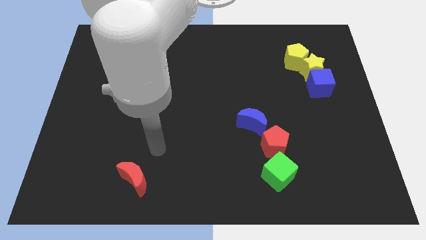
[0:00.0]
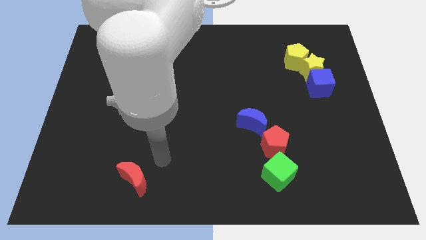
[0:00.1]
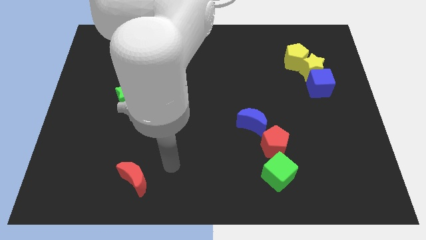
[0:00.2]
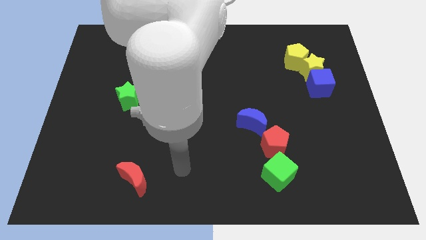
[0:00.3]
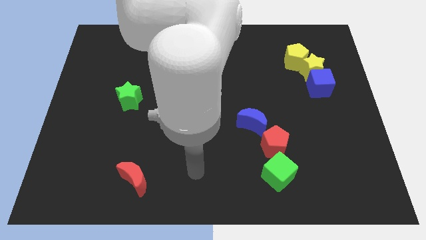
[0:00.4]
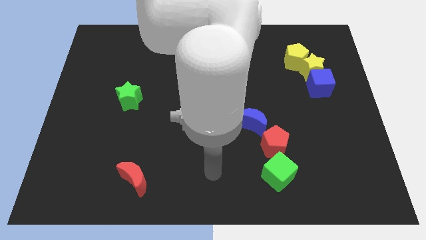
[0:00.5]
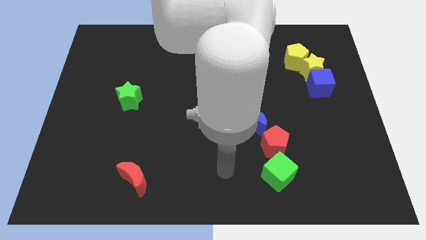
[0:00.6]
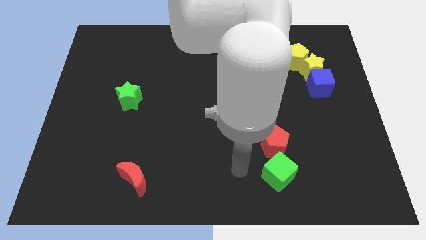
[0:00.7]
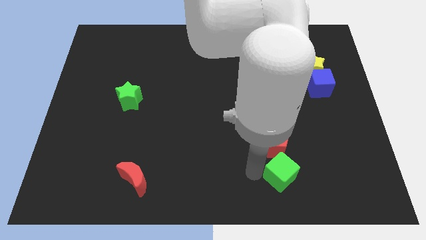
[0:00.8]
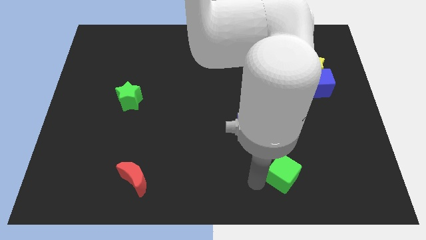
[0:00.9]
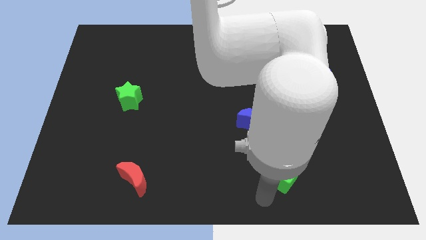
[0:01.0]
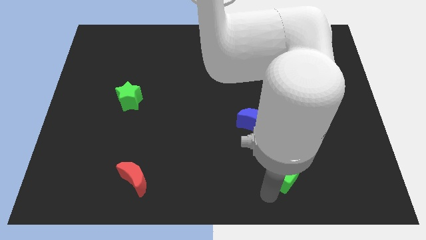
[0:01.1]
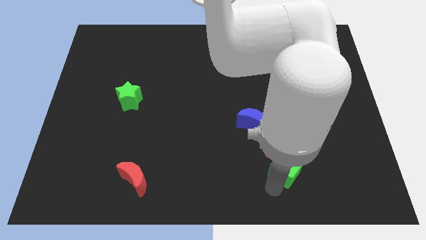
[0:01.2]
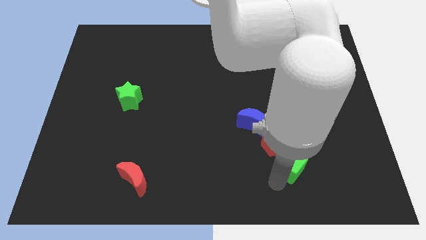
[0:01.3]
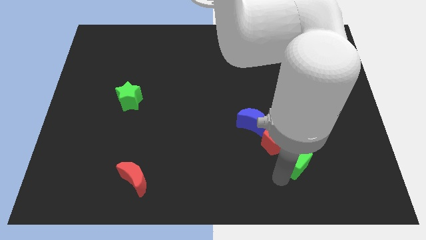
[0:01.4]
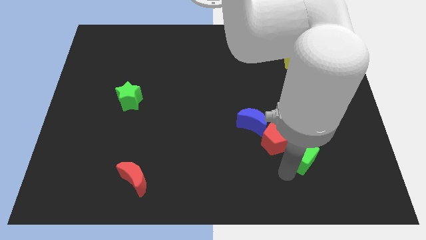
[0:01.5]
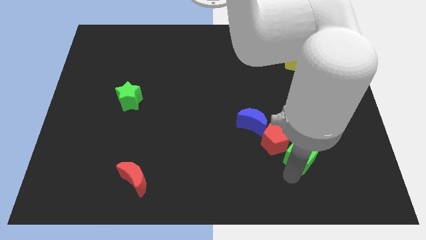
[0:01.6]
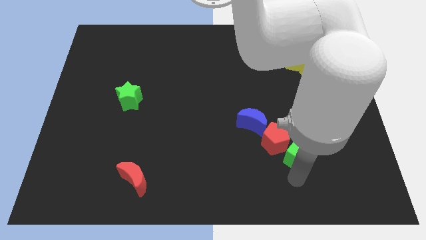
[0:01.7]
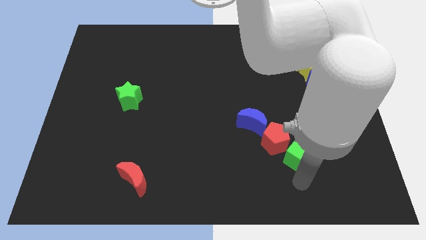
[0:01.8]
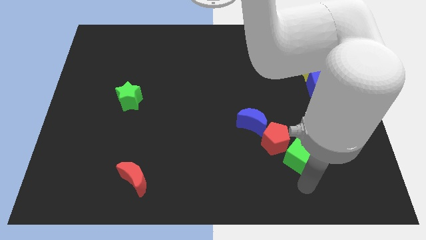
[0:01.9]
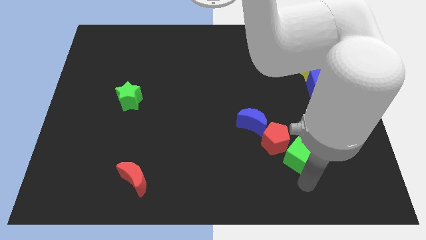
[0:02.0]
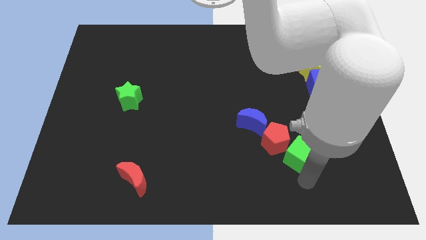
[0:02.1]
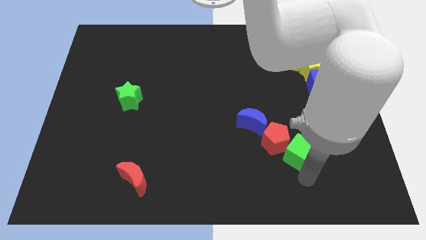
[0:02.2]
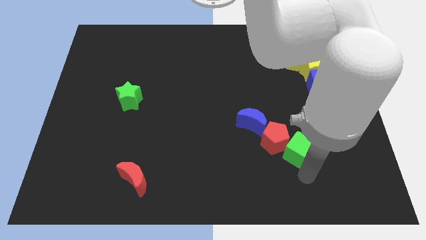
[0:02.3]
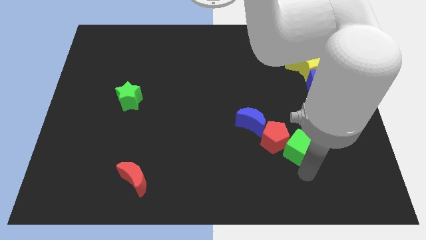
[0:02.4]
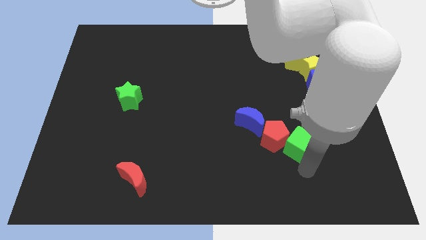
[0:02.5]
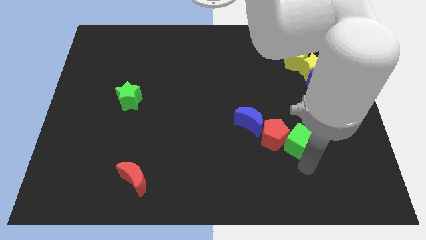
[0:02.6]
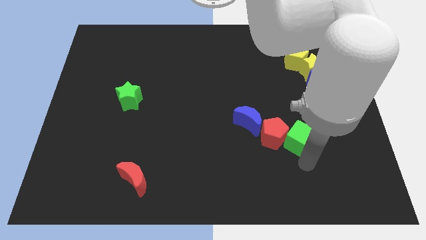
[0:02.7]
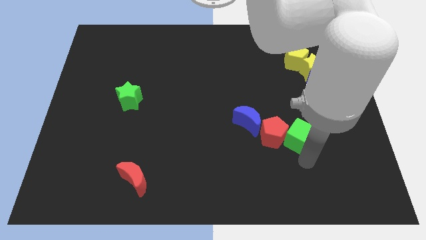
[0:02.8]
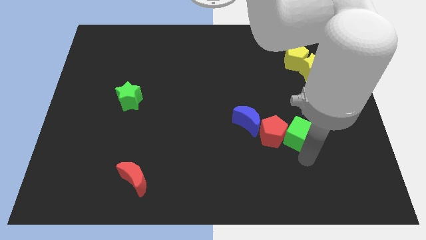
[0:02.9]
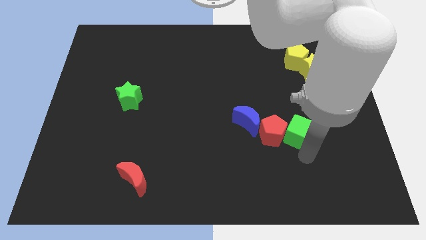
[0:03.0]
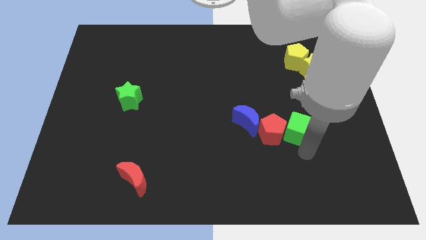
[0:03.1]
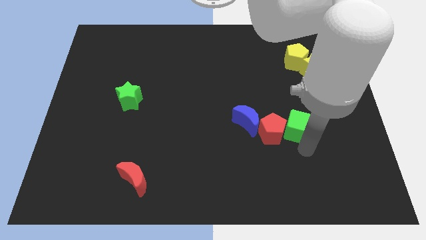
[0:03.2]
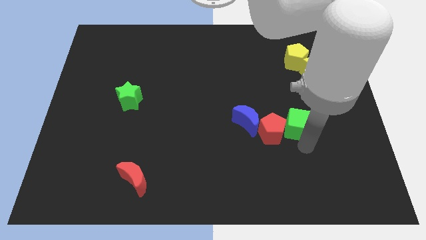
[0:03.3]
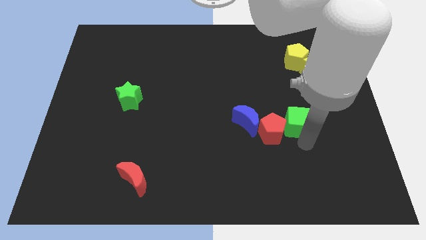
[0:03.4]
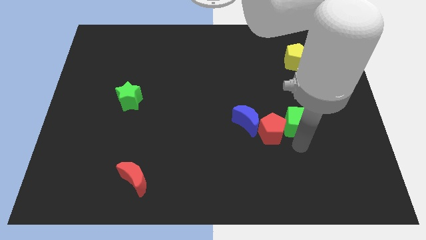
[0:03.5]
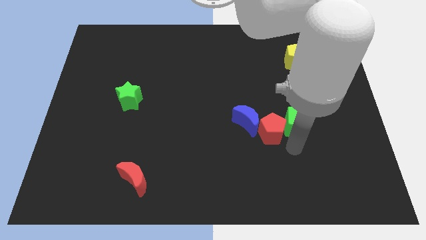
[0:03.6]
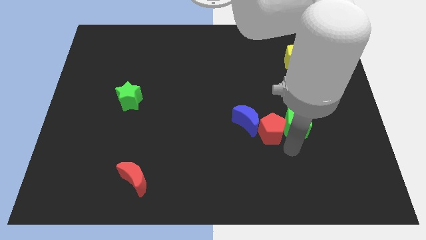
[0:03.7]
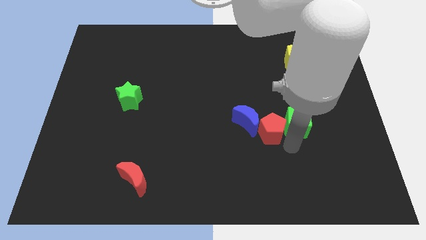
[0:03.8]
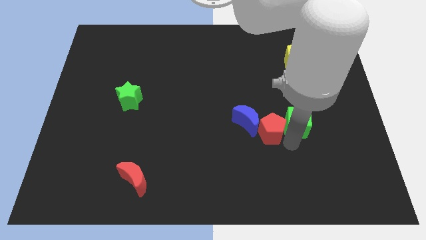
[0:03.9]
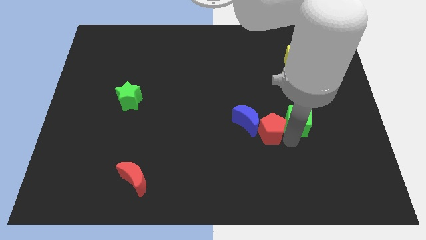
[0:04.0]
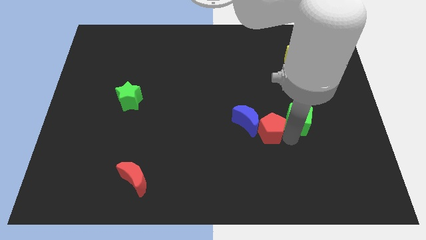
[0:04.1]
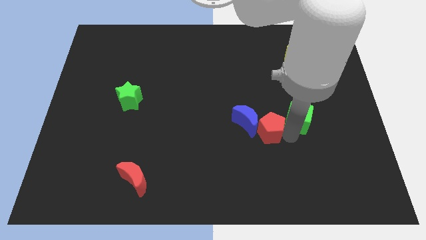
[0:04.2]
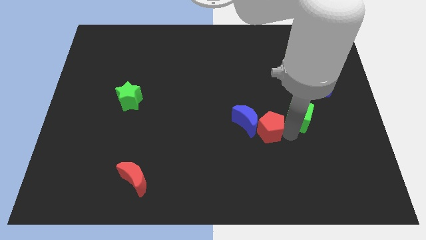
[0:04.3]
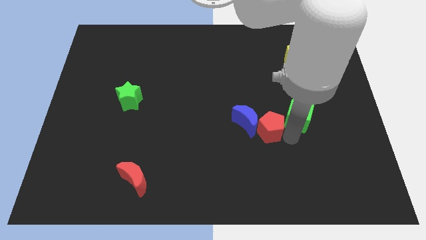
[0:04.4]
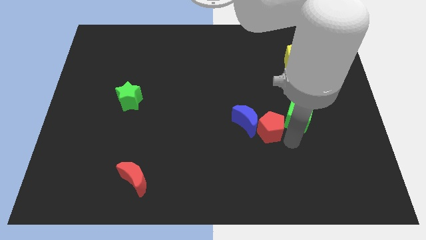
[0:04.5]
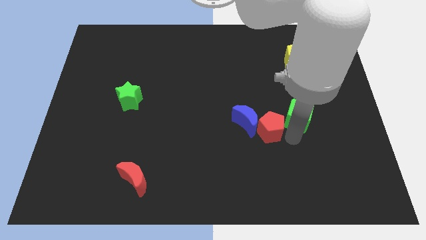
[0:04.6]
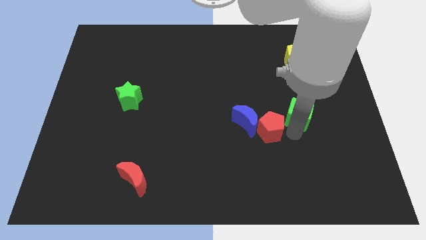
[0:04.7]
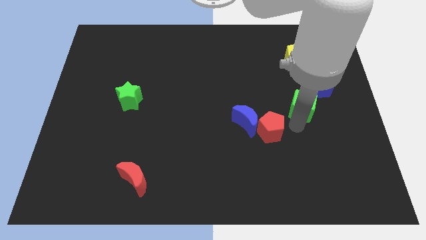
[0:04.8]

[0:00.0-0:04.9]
push the green cube to the bottom of the yellow pentagon

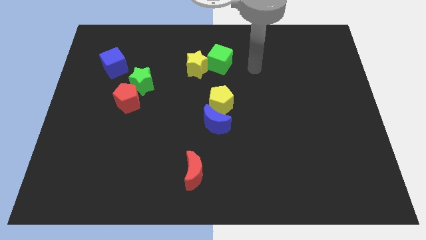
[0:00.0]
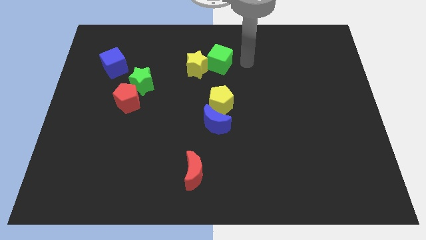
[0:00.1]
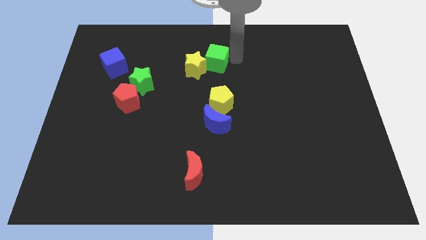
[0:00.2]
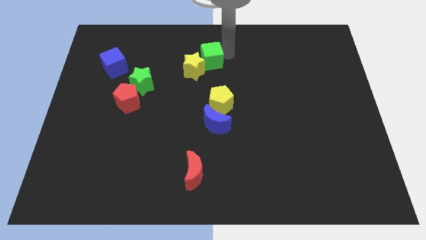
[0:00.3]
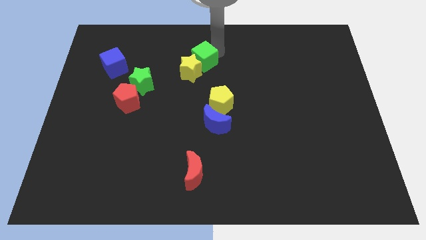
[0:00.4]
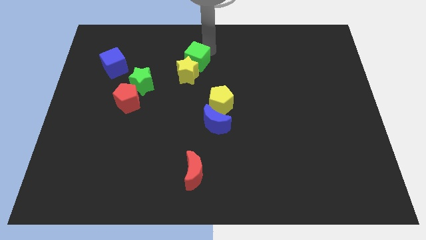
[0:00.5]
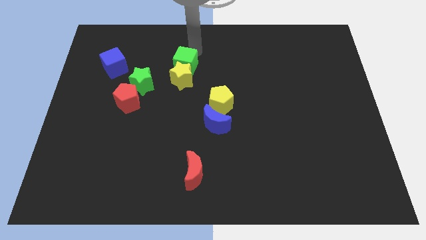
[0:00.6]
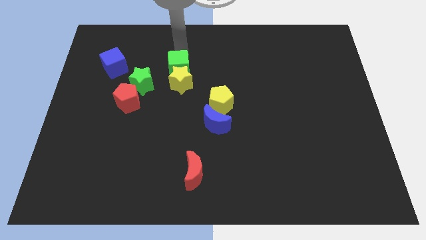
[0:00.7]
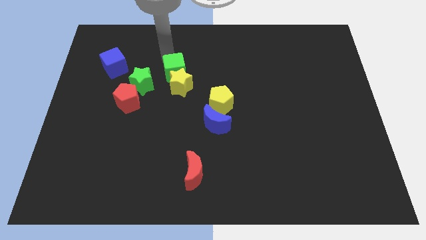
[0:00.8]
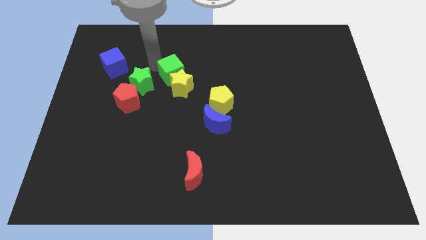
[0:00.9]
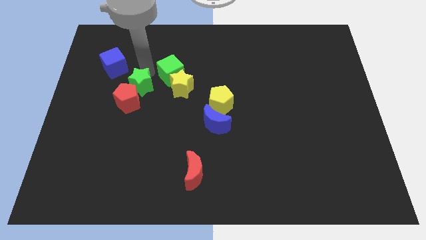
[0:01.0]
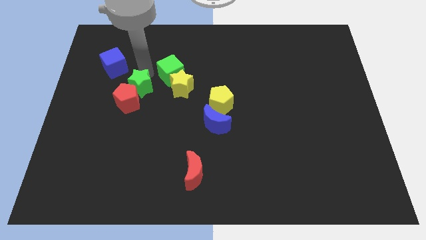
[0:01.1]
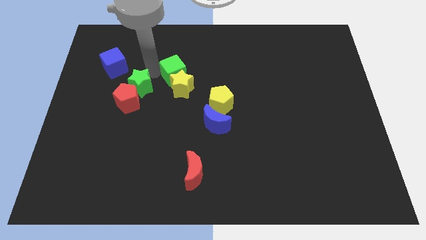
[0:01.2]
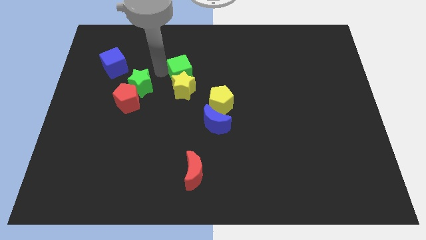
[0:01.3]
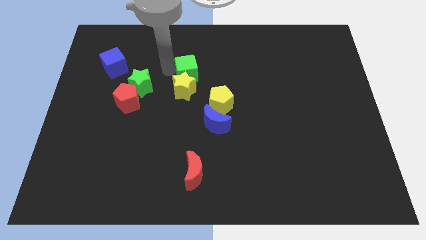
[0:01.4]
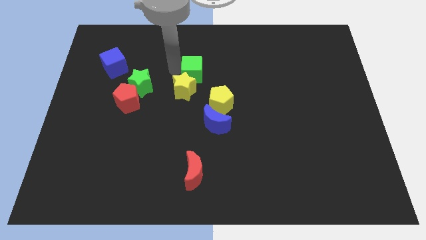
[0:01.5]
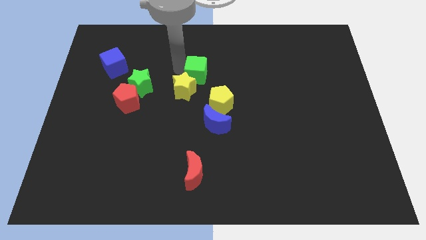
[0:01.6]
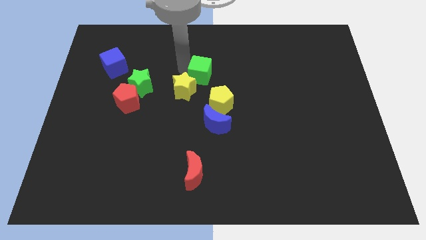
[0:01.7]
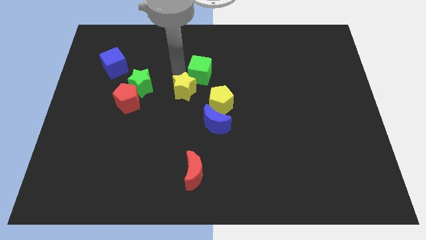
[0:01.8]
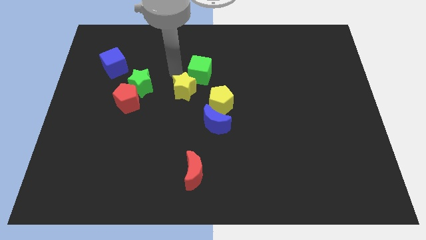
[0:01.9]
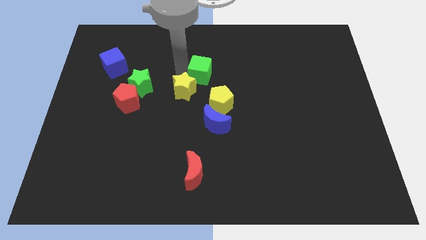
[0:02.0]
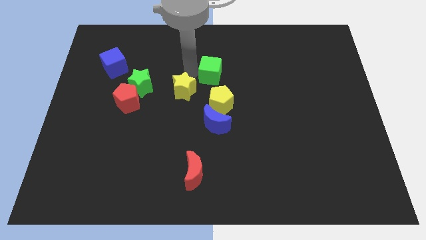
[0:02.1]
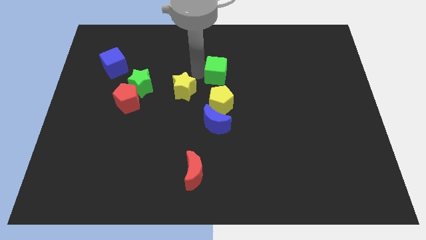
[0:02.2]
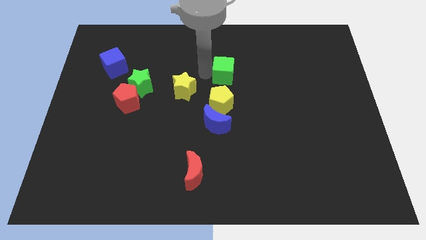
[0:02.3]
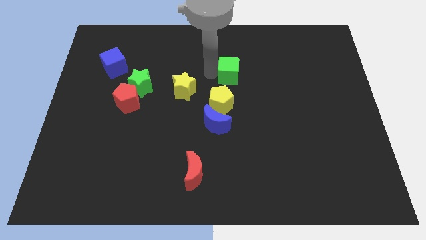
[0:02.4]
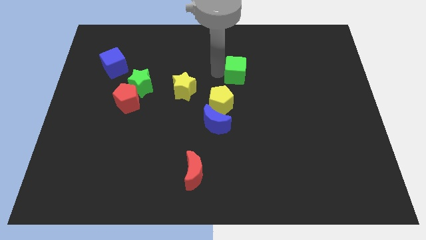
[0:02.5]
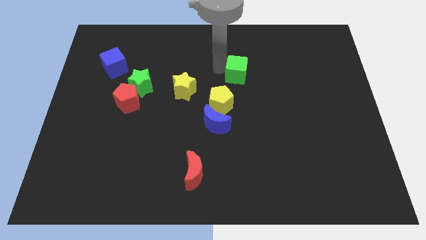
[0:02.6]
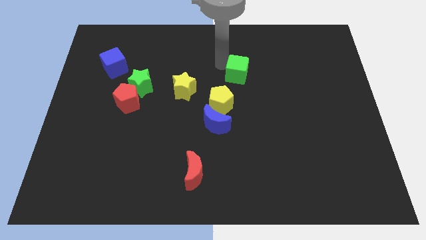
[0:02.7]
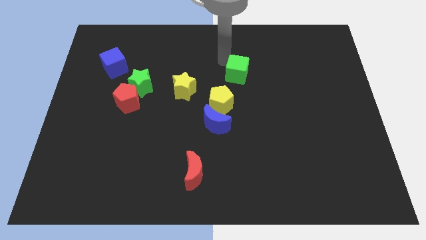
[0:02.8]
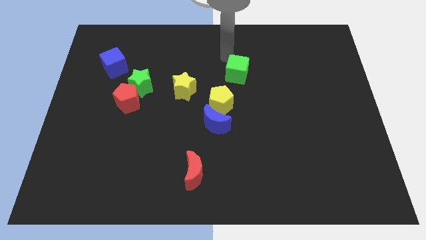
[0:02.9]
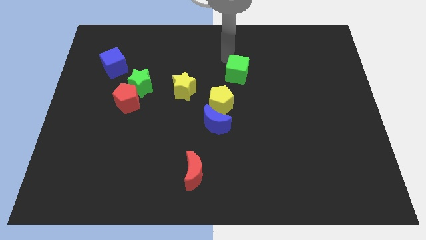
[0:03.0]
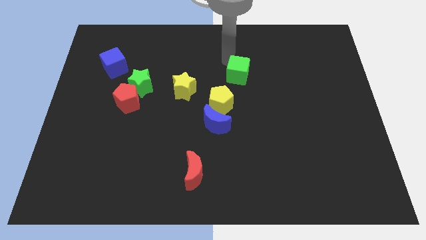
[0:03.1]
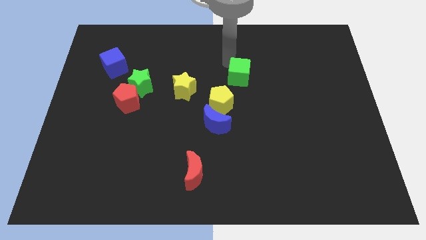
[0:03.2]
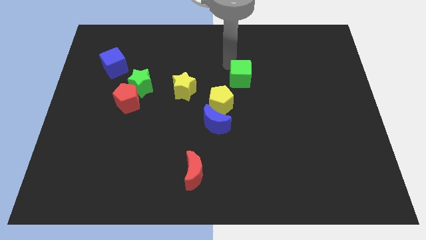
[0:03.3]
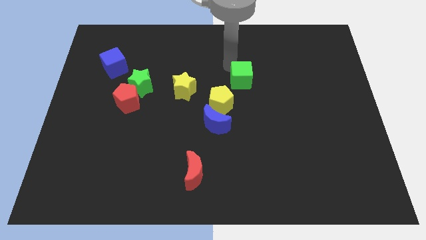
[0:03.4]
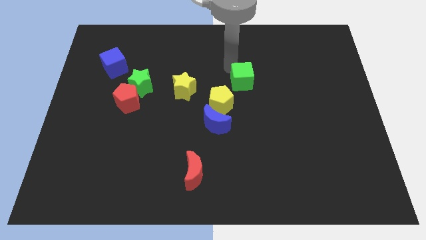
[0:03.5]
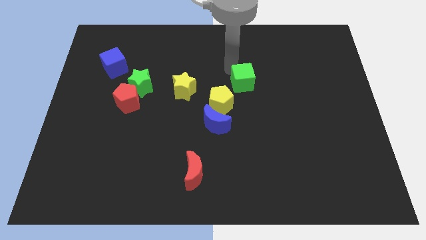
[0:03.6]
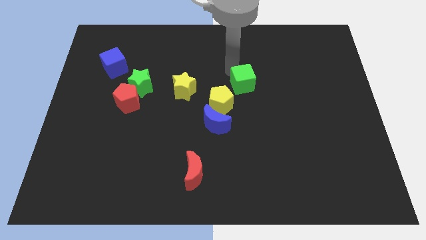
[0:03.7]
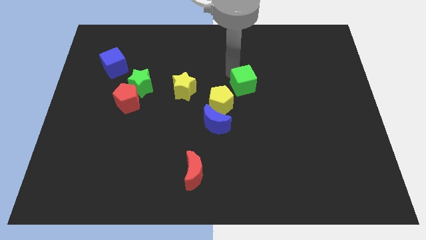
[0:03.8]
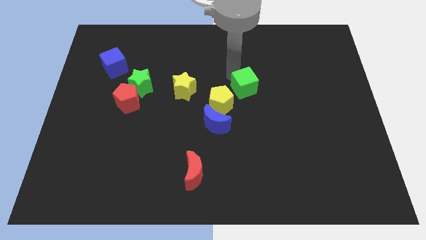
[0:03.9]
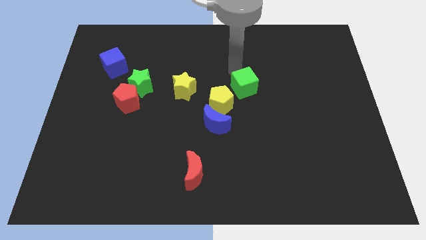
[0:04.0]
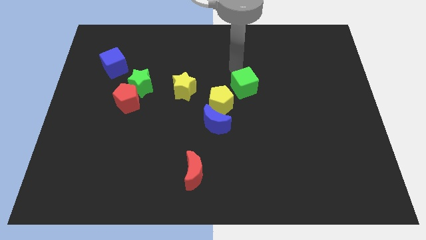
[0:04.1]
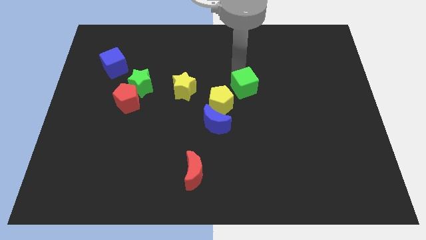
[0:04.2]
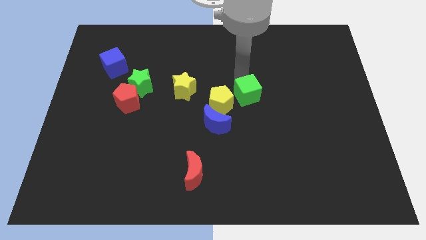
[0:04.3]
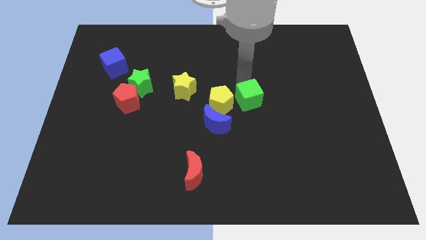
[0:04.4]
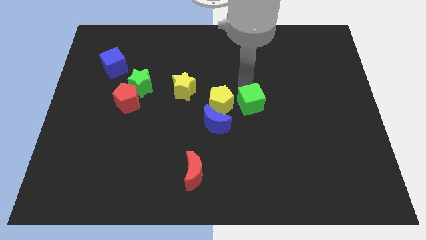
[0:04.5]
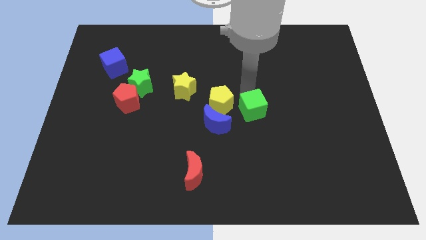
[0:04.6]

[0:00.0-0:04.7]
move the green cube right of the blue moon
